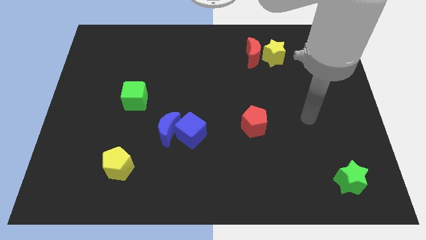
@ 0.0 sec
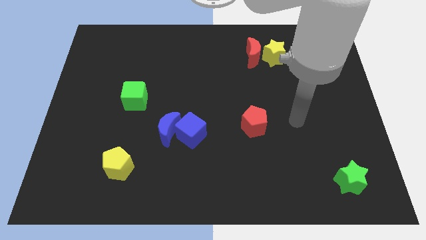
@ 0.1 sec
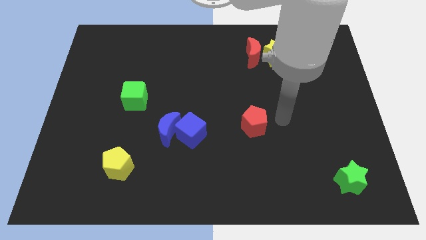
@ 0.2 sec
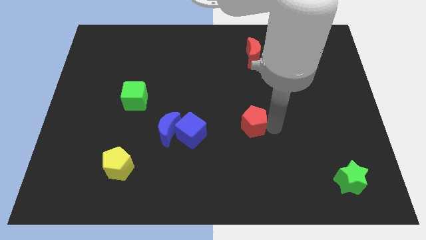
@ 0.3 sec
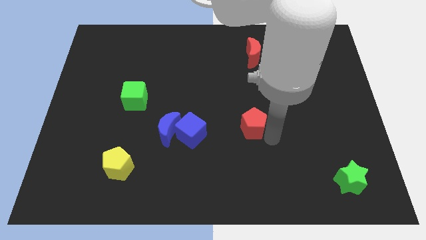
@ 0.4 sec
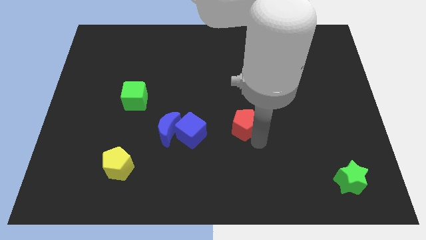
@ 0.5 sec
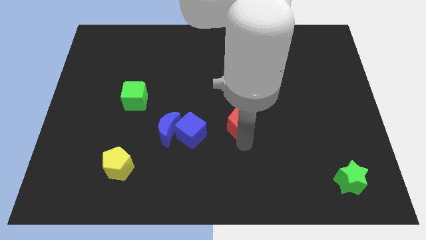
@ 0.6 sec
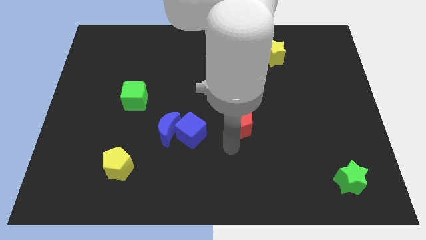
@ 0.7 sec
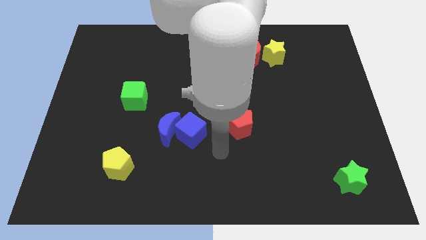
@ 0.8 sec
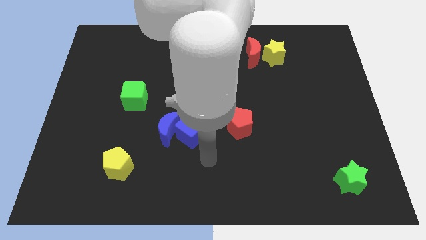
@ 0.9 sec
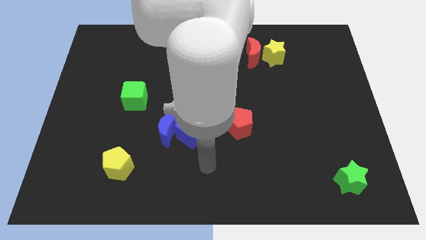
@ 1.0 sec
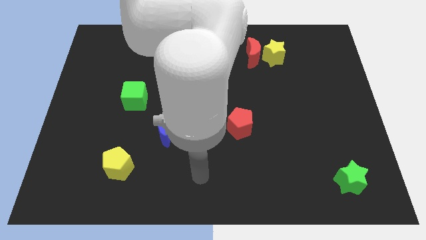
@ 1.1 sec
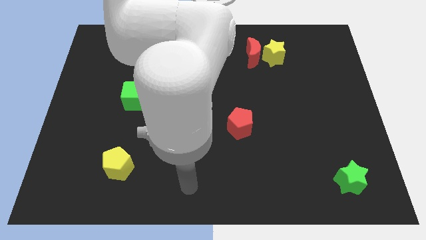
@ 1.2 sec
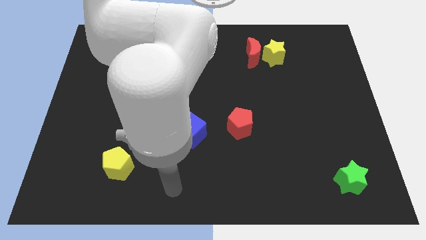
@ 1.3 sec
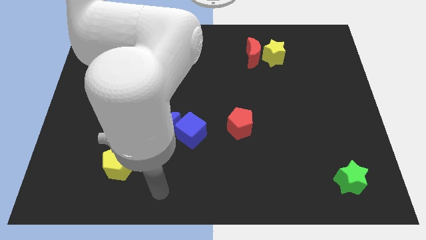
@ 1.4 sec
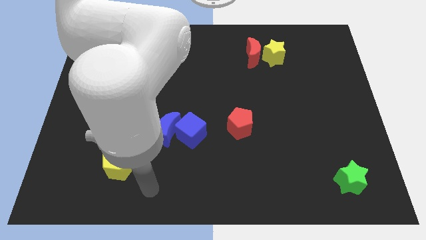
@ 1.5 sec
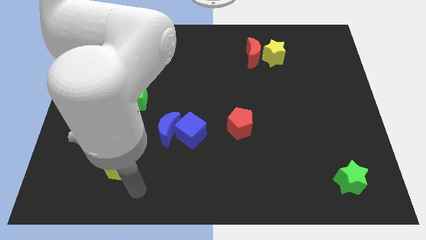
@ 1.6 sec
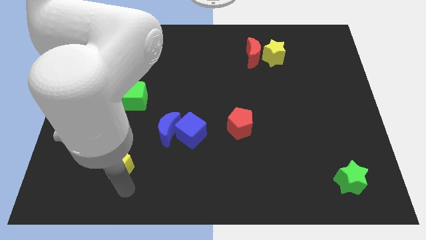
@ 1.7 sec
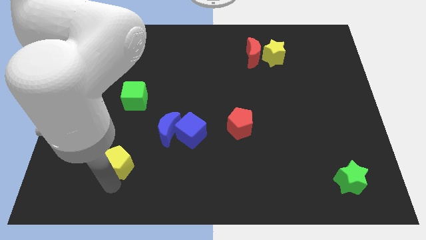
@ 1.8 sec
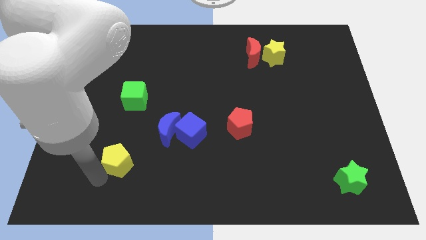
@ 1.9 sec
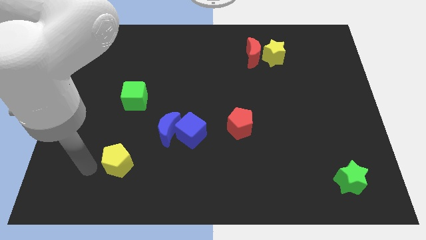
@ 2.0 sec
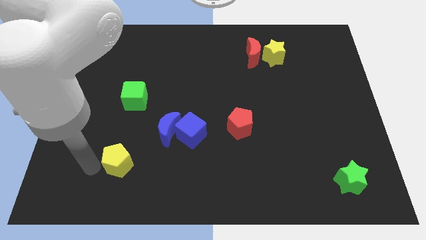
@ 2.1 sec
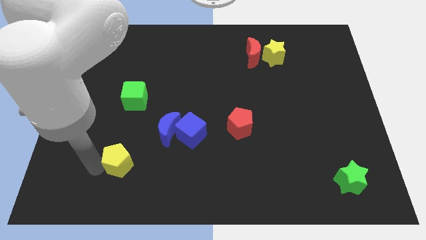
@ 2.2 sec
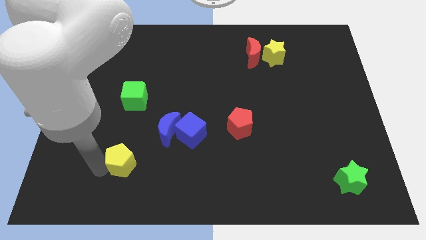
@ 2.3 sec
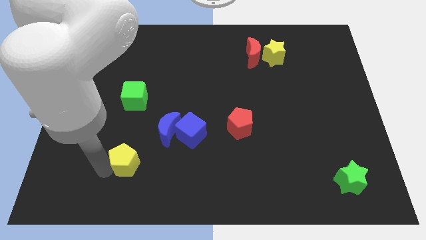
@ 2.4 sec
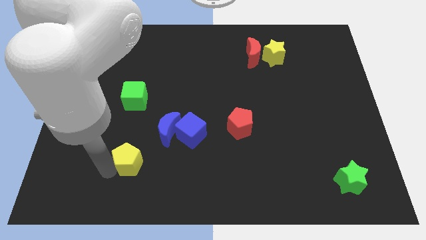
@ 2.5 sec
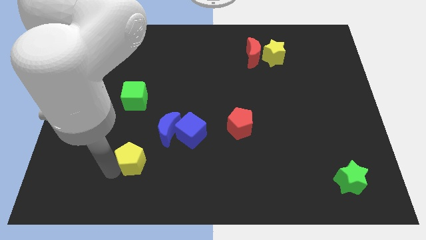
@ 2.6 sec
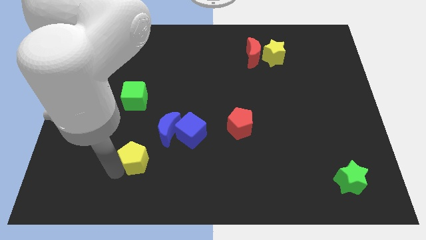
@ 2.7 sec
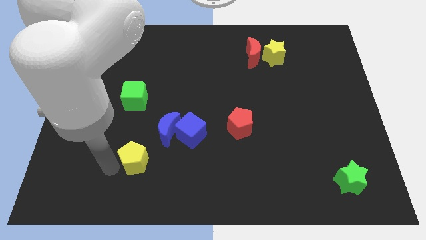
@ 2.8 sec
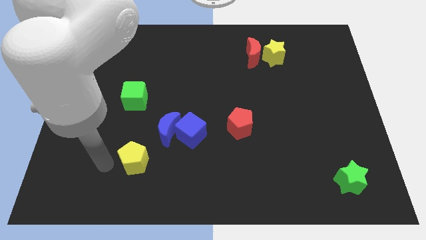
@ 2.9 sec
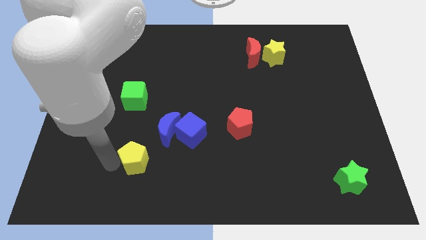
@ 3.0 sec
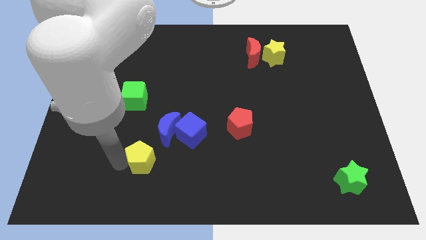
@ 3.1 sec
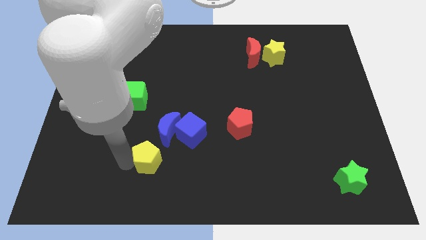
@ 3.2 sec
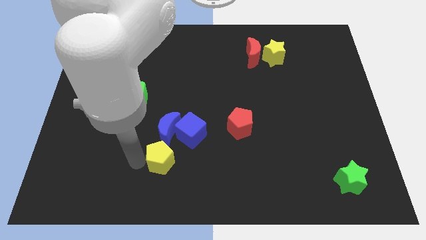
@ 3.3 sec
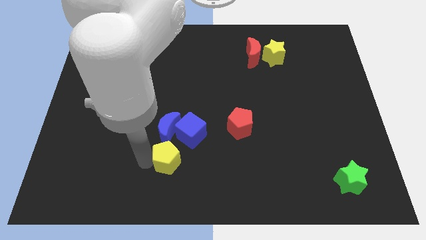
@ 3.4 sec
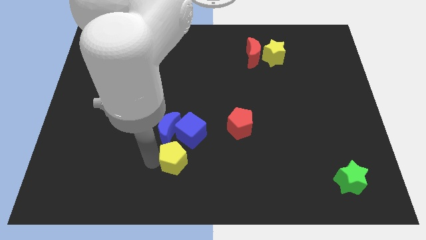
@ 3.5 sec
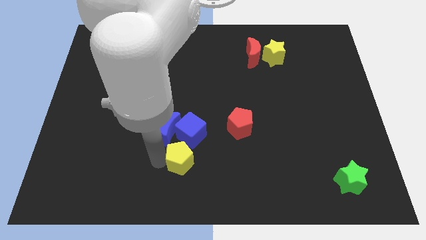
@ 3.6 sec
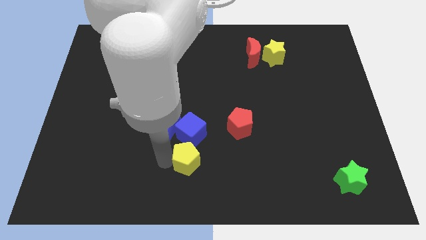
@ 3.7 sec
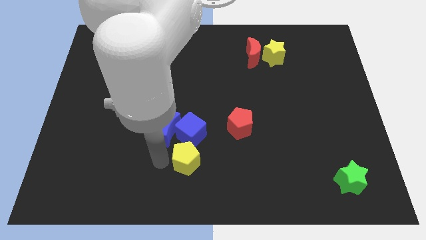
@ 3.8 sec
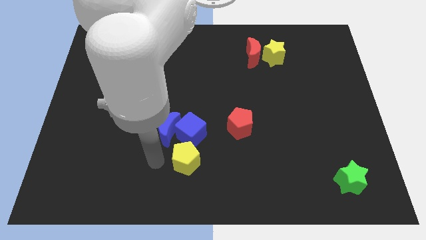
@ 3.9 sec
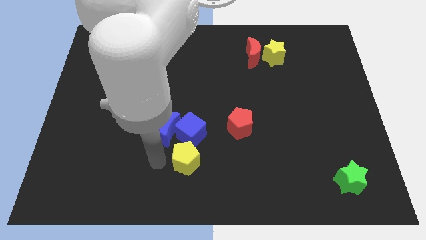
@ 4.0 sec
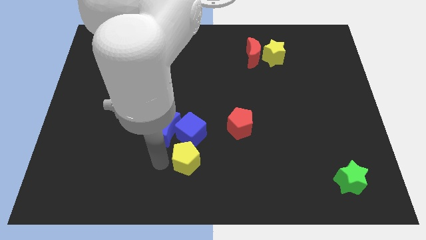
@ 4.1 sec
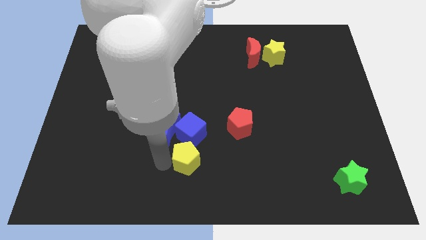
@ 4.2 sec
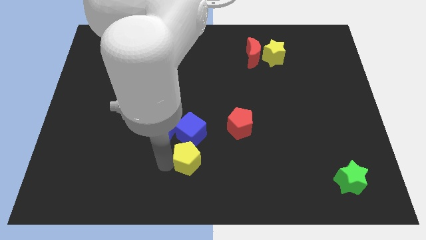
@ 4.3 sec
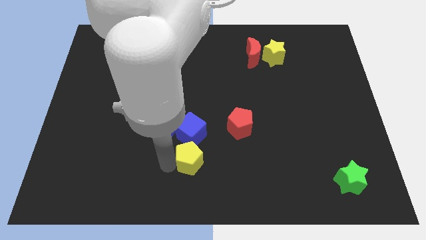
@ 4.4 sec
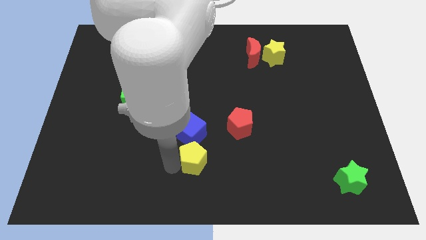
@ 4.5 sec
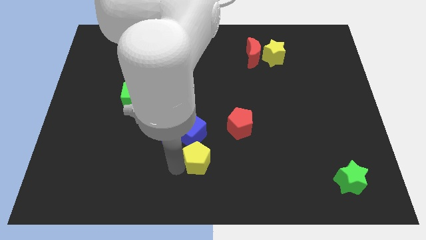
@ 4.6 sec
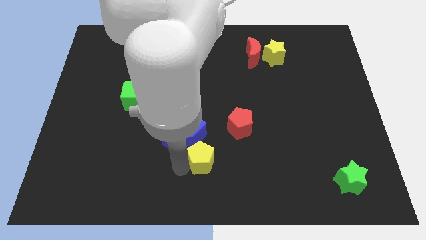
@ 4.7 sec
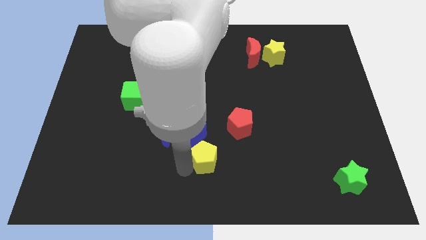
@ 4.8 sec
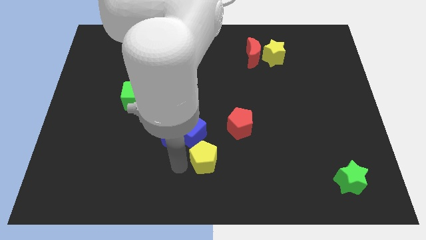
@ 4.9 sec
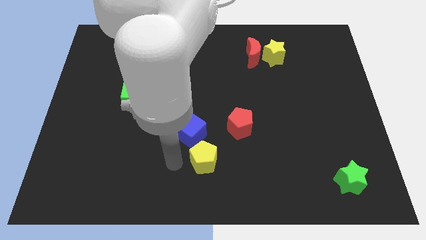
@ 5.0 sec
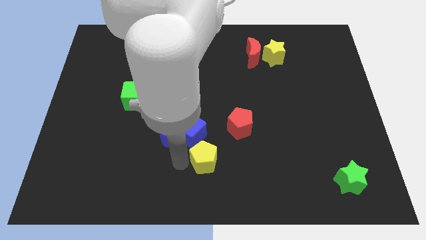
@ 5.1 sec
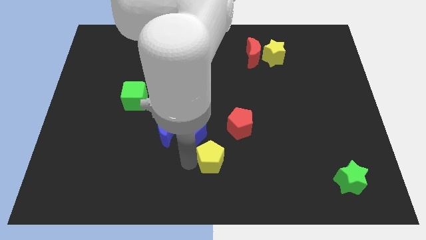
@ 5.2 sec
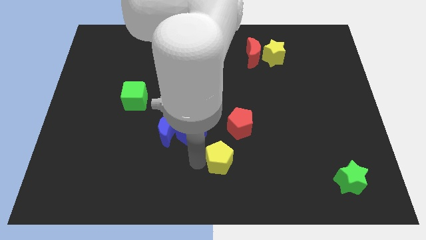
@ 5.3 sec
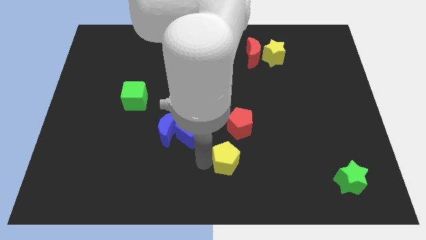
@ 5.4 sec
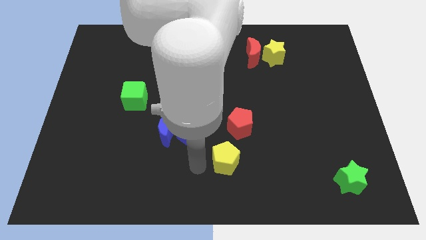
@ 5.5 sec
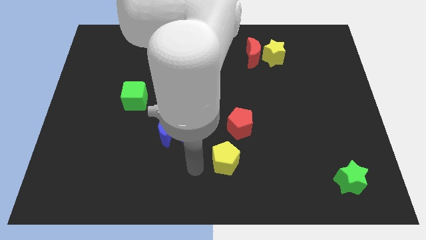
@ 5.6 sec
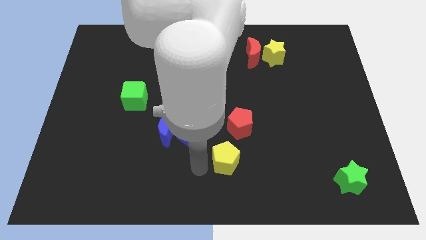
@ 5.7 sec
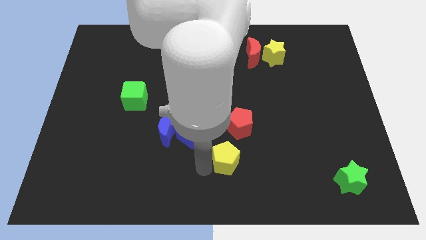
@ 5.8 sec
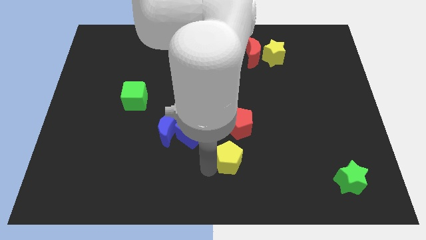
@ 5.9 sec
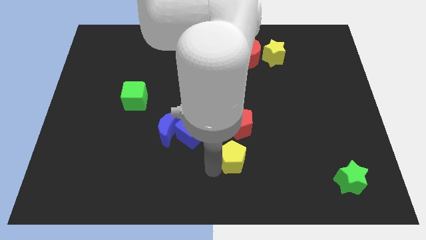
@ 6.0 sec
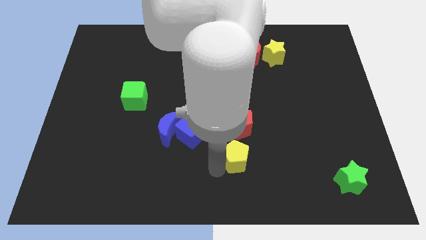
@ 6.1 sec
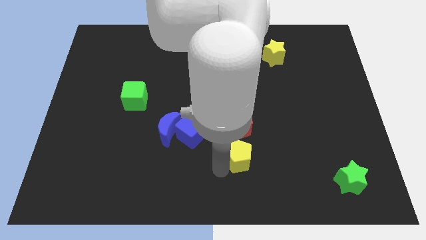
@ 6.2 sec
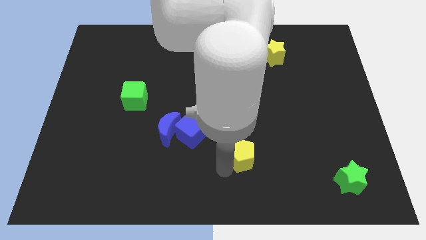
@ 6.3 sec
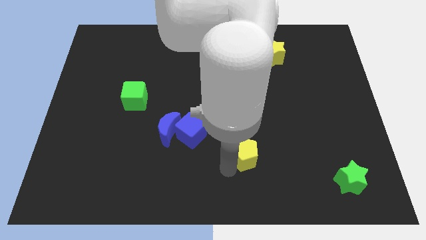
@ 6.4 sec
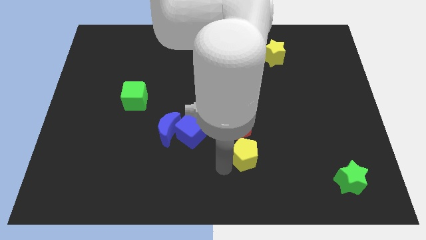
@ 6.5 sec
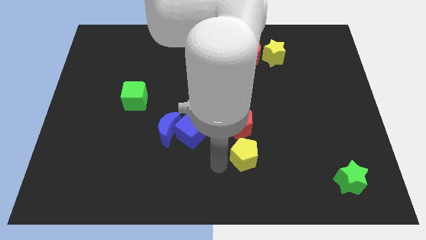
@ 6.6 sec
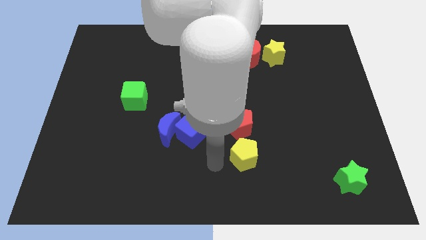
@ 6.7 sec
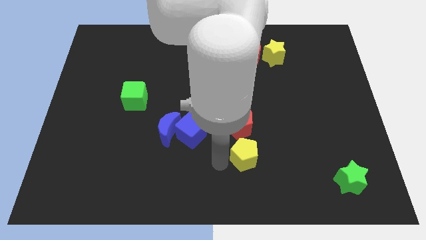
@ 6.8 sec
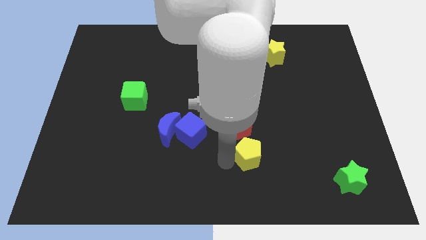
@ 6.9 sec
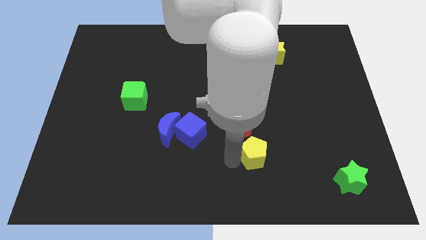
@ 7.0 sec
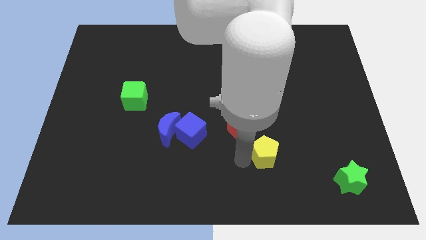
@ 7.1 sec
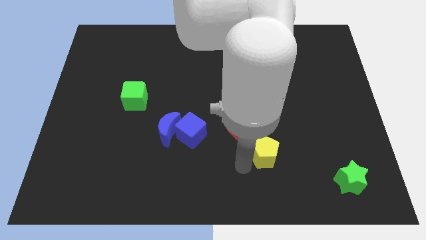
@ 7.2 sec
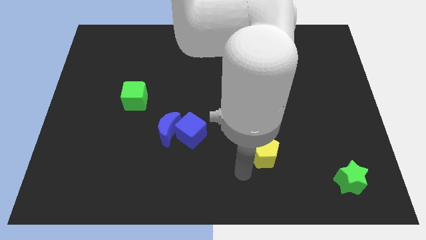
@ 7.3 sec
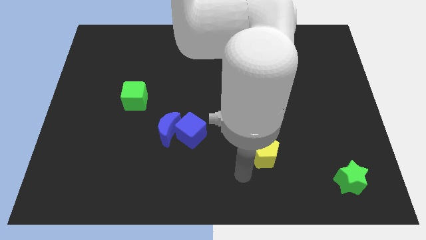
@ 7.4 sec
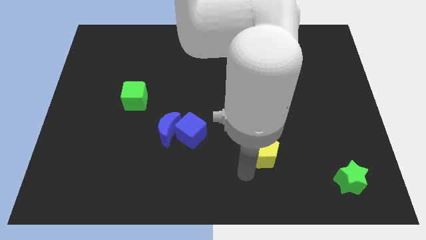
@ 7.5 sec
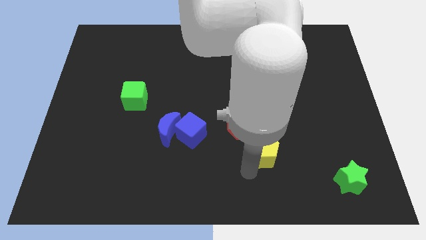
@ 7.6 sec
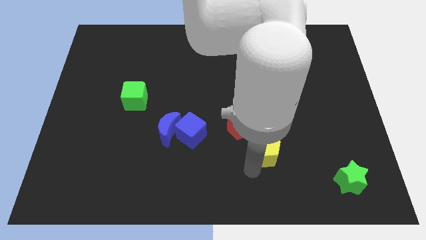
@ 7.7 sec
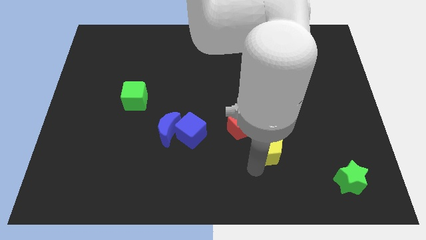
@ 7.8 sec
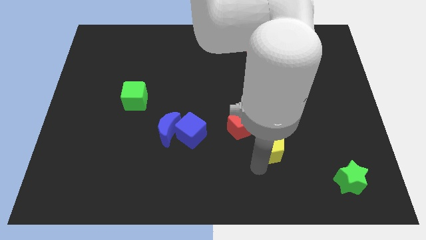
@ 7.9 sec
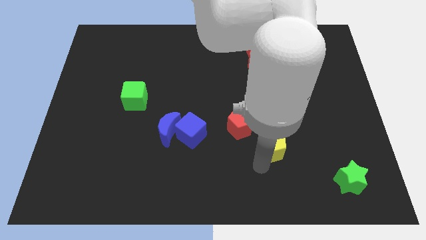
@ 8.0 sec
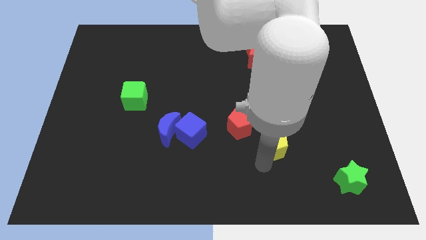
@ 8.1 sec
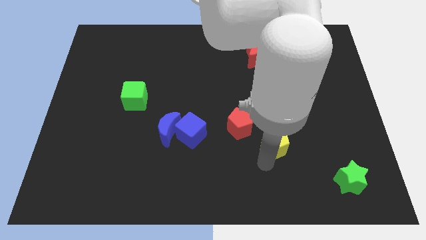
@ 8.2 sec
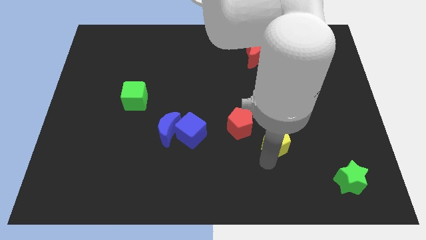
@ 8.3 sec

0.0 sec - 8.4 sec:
move the yellow pentagon to the right of the red pentagon
